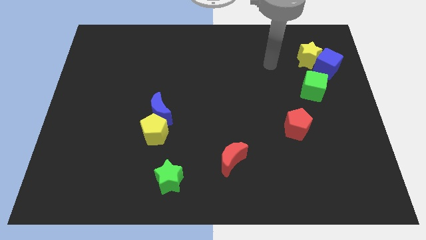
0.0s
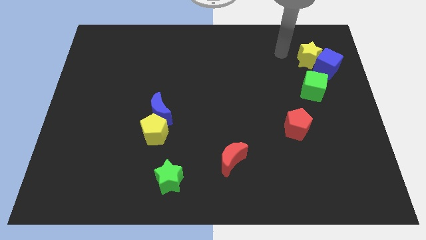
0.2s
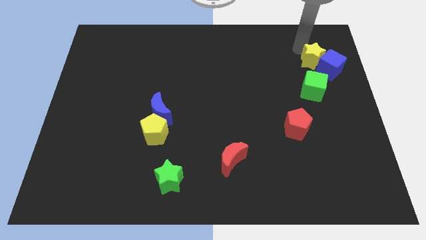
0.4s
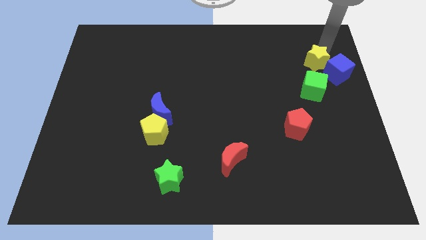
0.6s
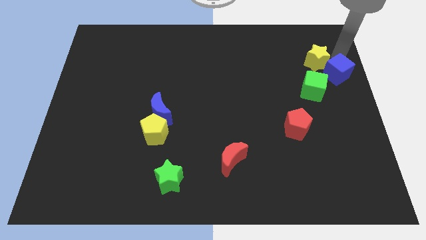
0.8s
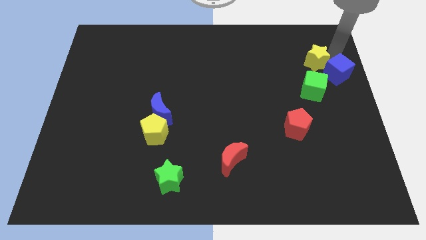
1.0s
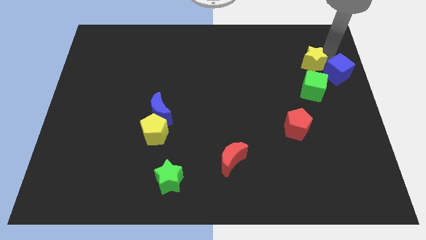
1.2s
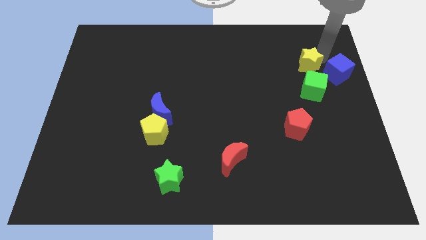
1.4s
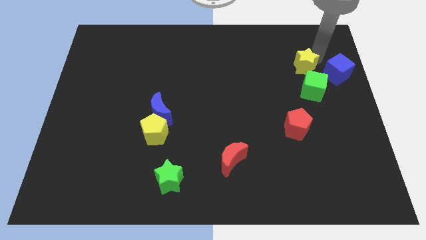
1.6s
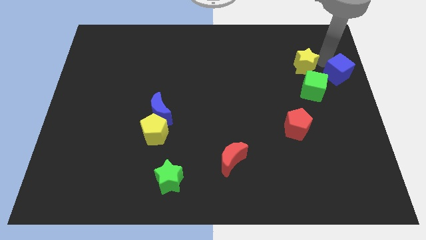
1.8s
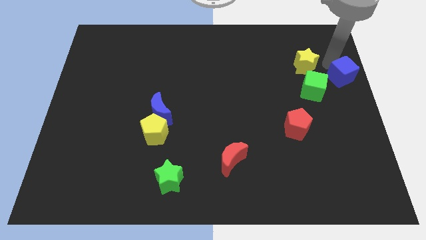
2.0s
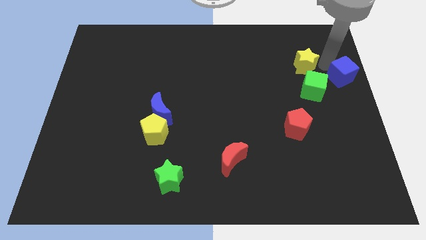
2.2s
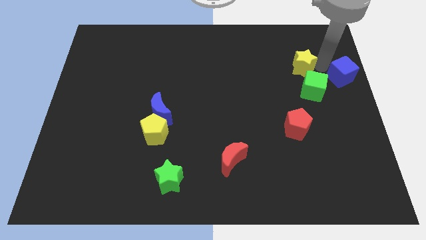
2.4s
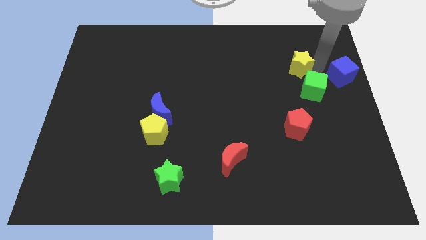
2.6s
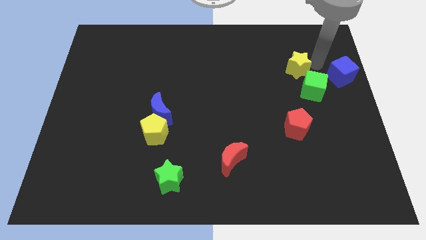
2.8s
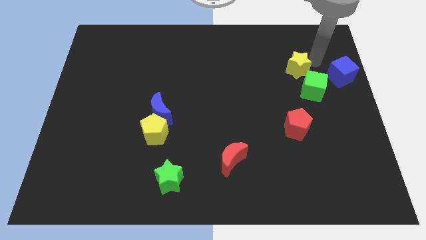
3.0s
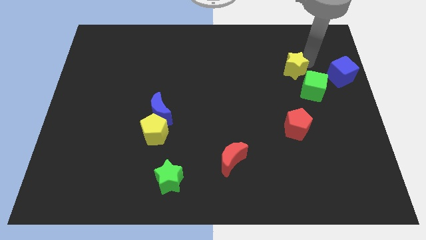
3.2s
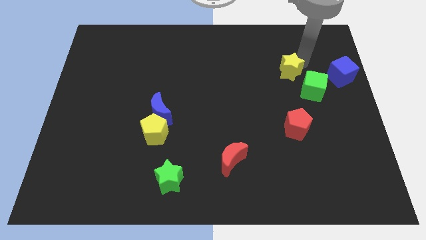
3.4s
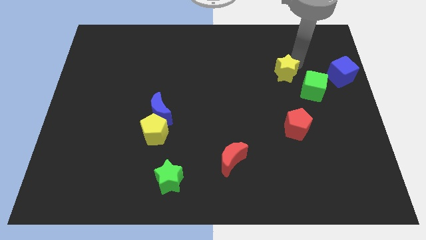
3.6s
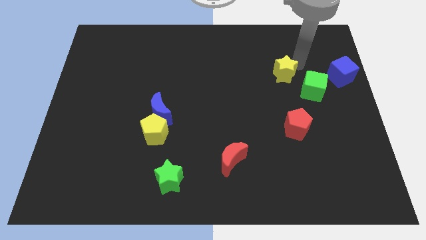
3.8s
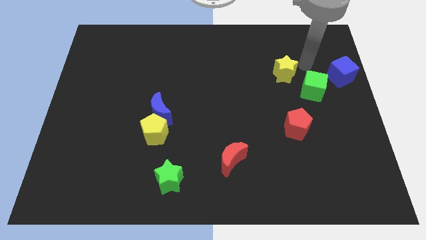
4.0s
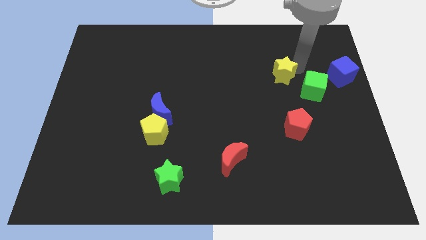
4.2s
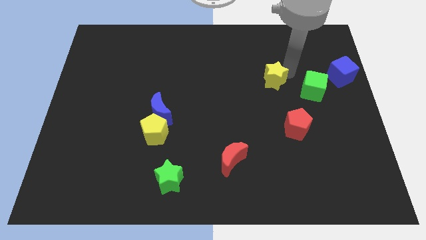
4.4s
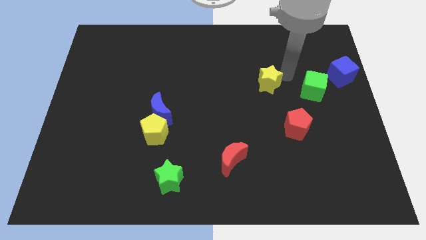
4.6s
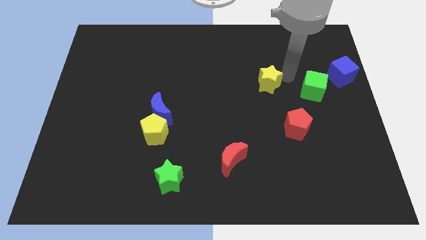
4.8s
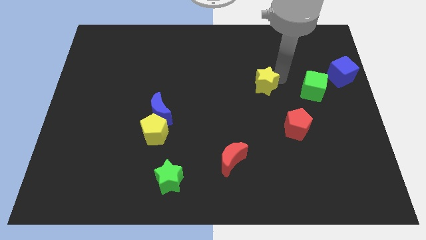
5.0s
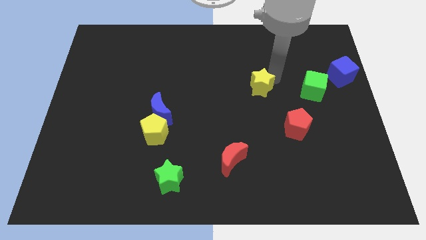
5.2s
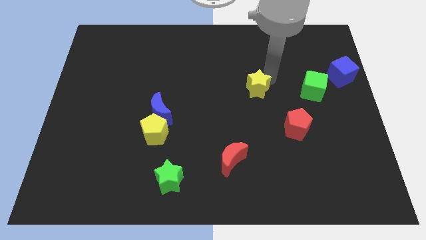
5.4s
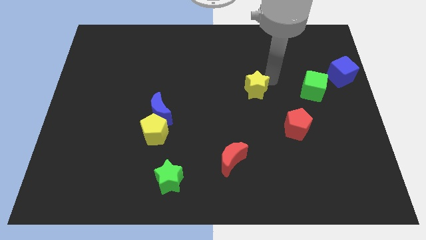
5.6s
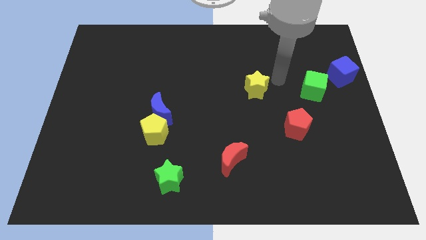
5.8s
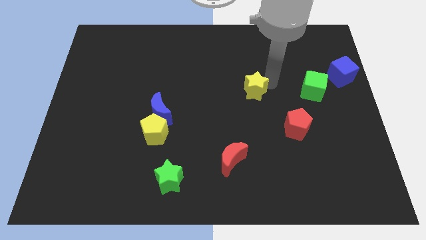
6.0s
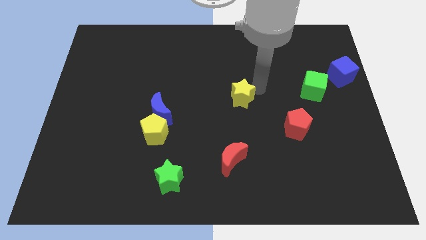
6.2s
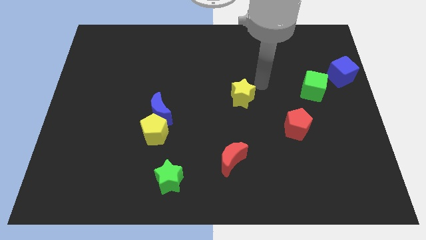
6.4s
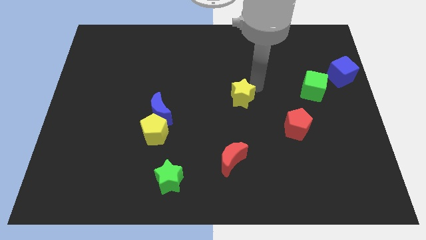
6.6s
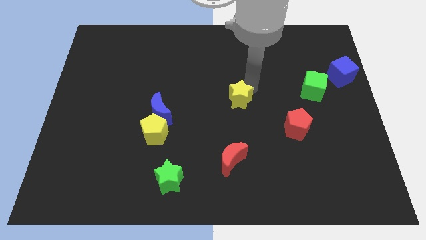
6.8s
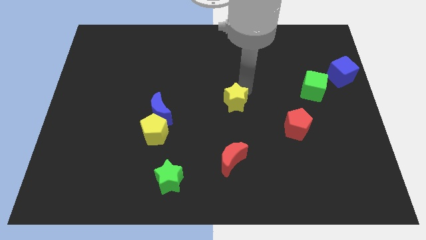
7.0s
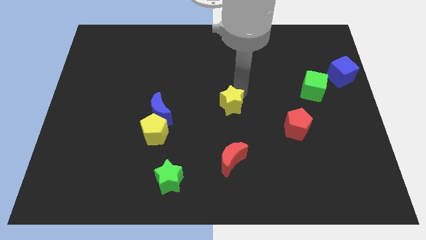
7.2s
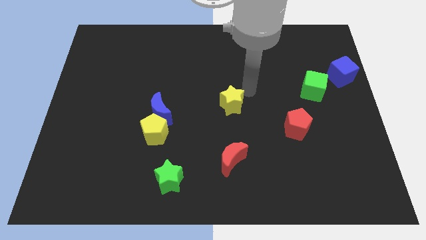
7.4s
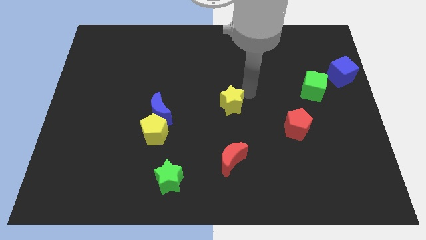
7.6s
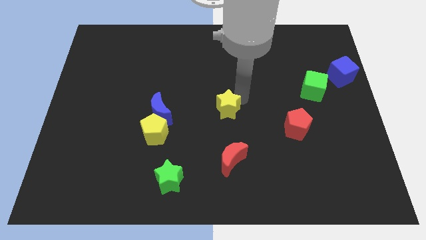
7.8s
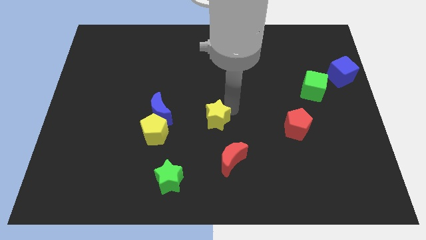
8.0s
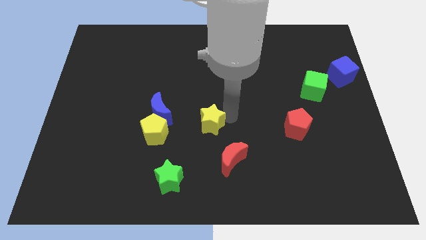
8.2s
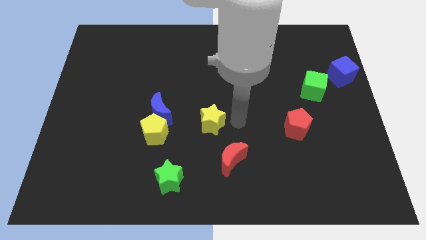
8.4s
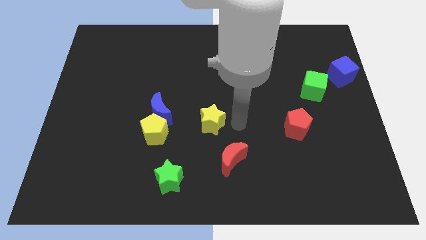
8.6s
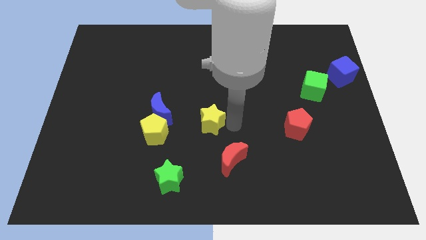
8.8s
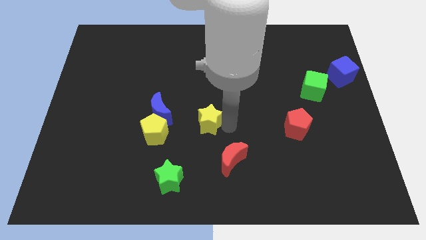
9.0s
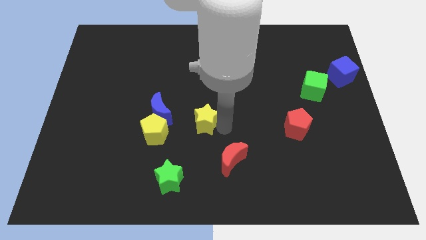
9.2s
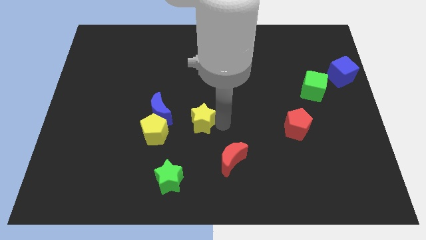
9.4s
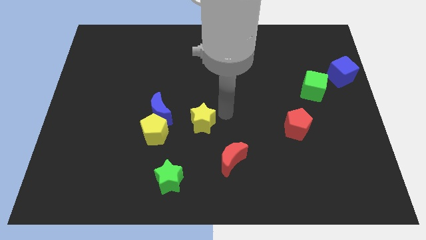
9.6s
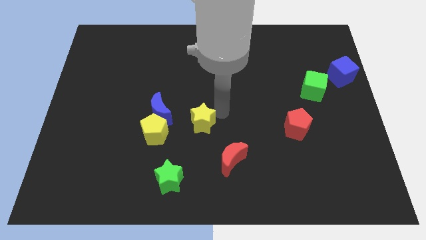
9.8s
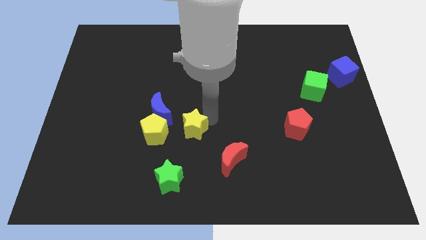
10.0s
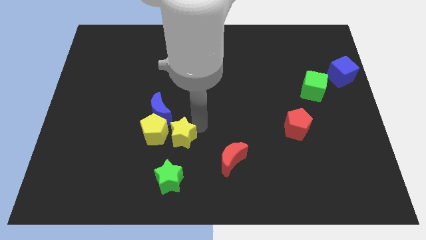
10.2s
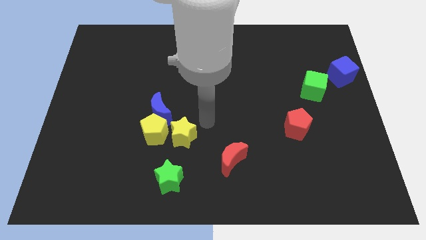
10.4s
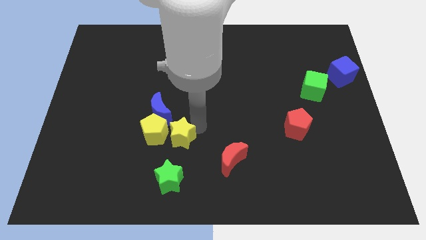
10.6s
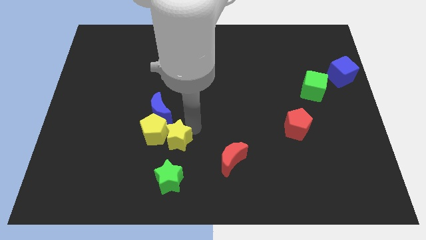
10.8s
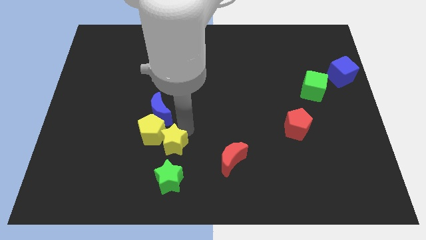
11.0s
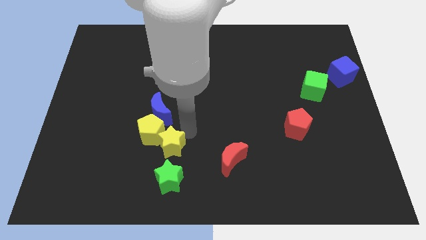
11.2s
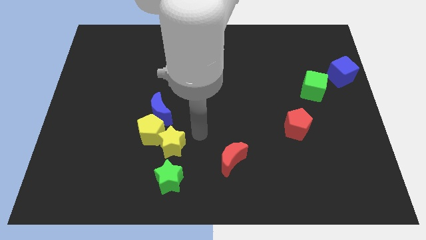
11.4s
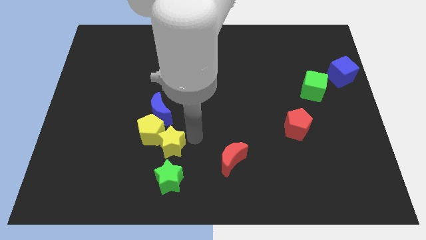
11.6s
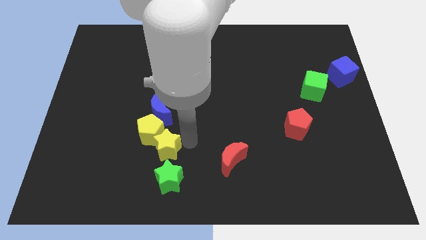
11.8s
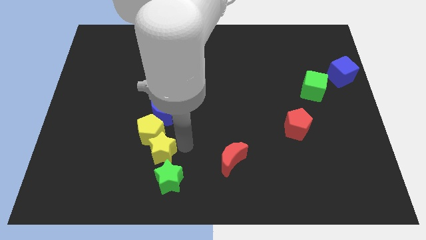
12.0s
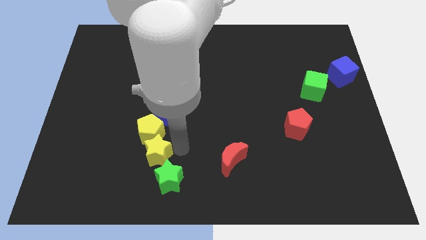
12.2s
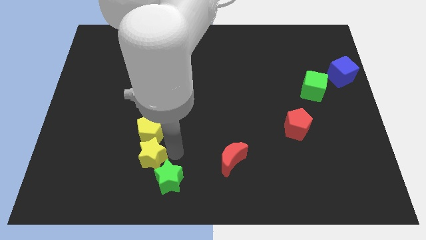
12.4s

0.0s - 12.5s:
move the yellow star to the bottom left side of the yellow pentagon

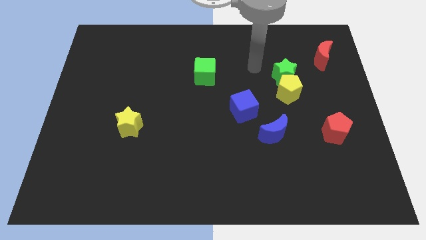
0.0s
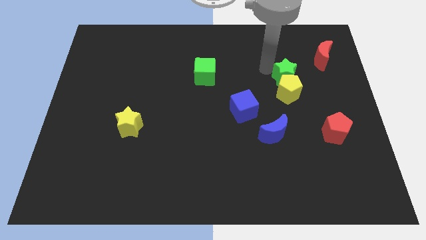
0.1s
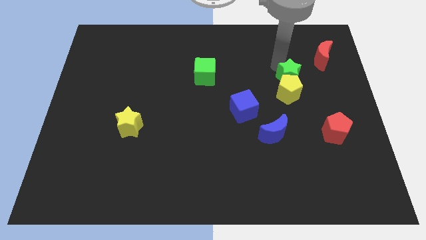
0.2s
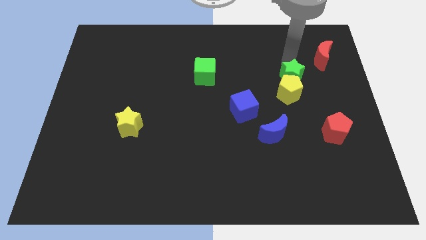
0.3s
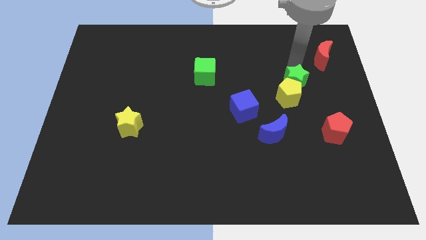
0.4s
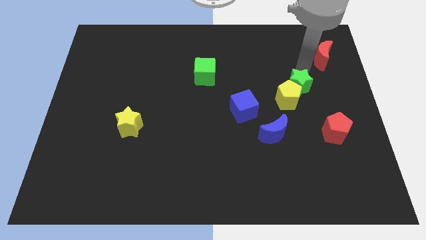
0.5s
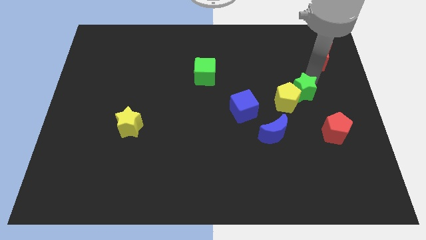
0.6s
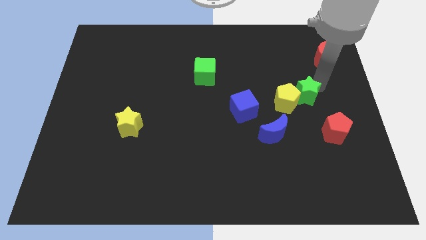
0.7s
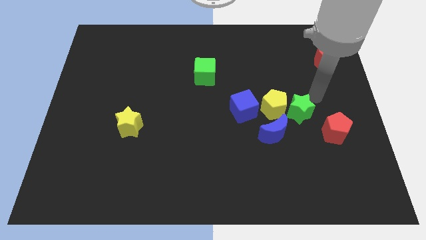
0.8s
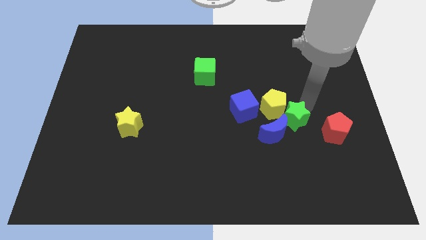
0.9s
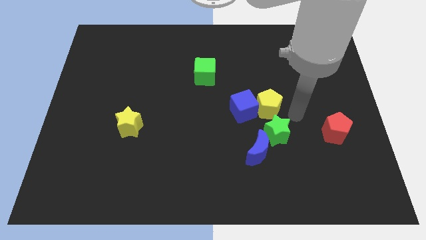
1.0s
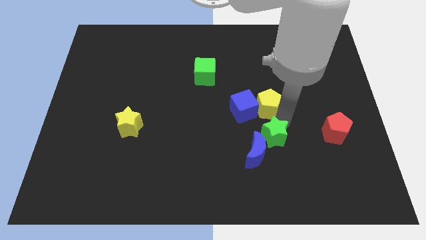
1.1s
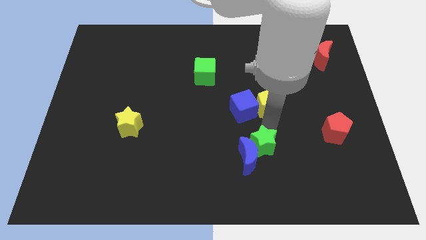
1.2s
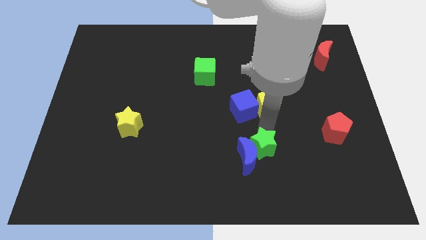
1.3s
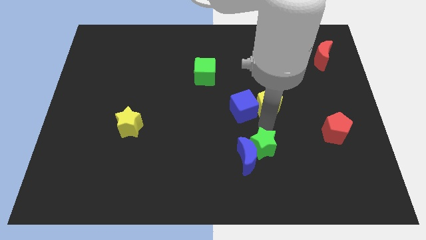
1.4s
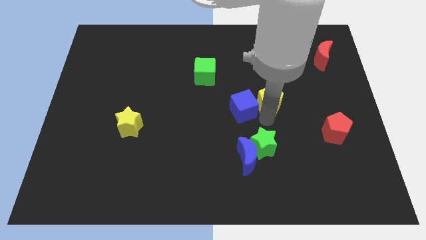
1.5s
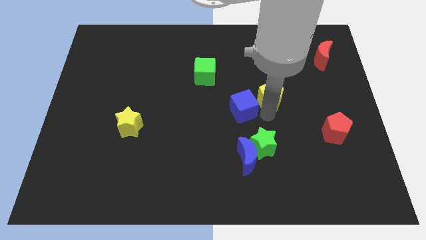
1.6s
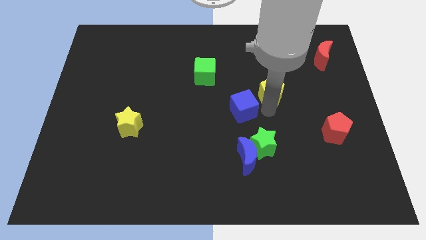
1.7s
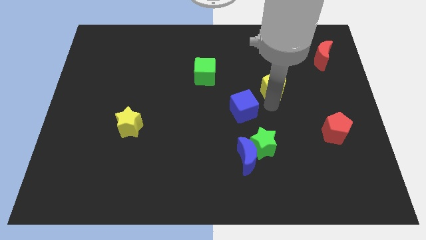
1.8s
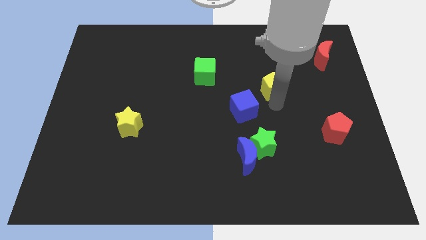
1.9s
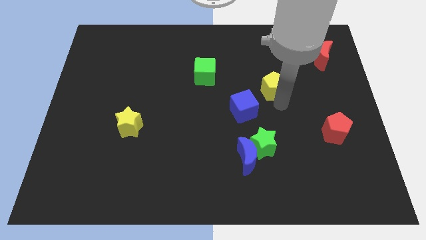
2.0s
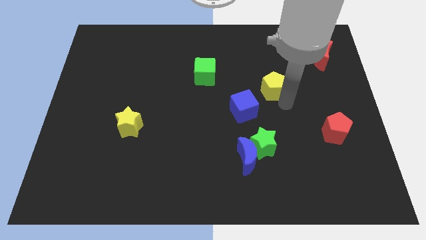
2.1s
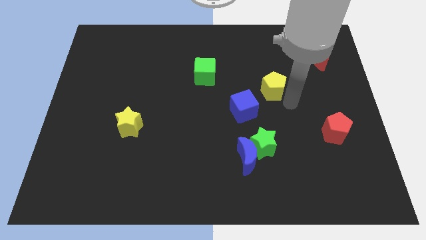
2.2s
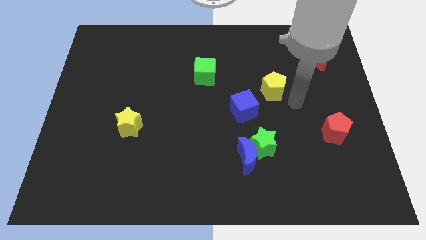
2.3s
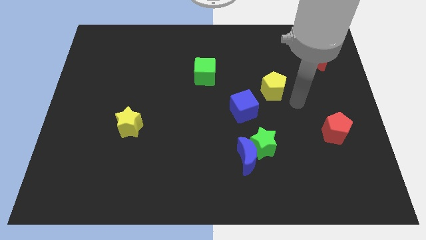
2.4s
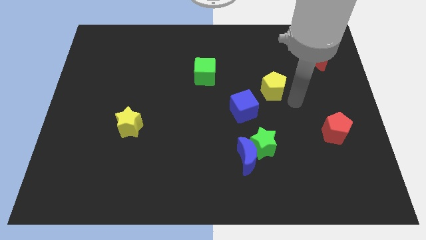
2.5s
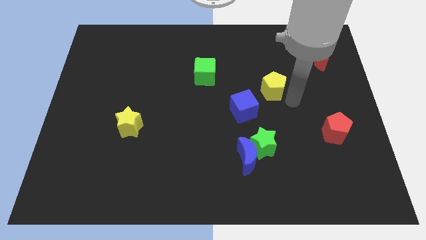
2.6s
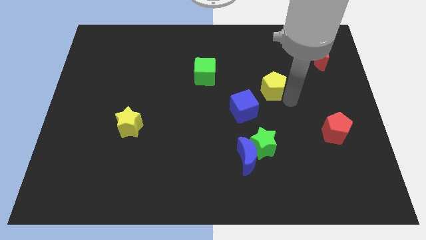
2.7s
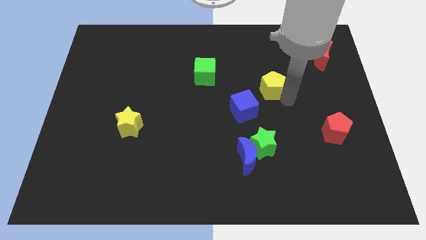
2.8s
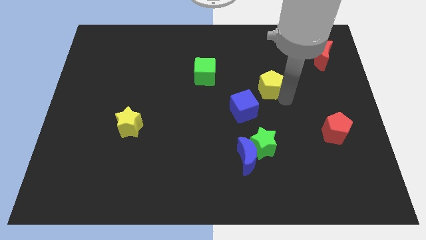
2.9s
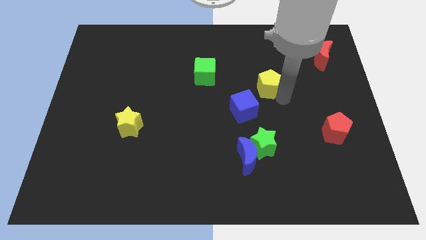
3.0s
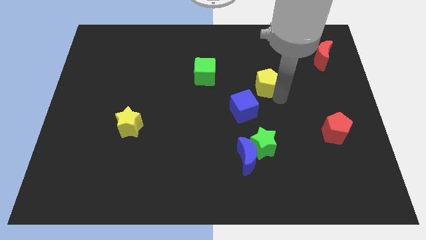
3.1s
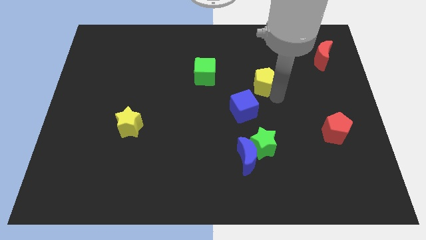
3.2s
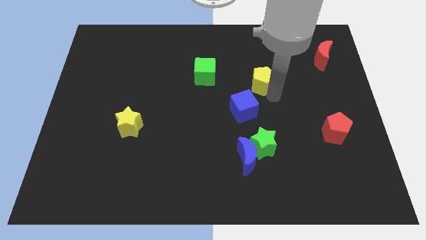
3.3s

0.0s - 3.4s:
push the yellow pentagon to the top side of the blue cube
